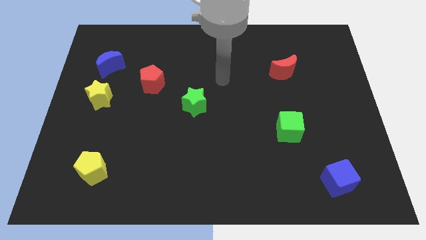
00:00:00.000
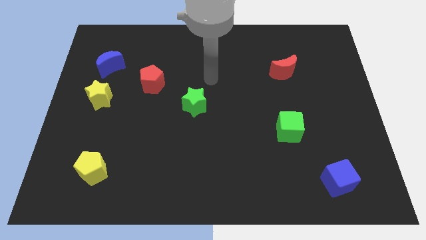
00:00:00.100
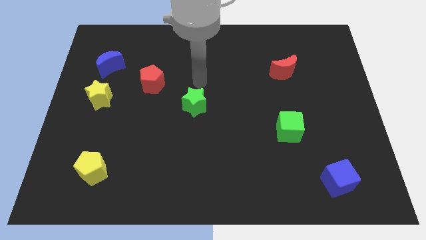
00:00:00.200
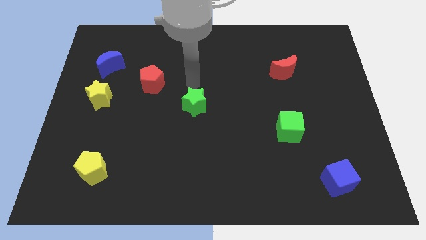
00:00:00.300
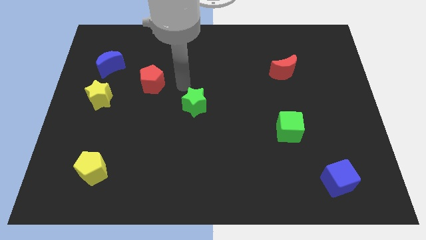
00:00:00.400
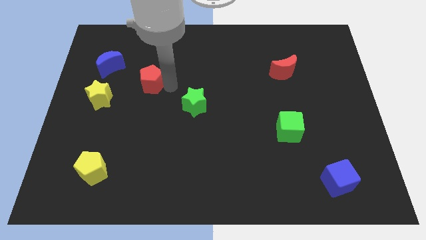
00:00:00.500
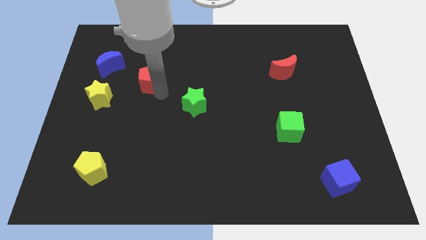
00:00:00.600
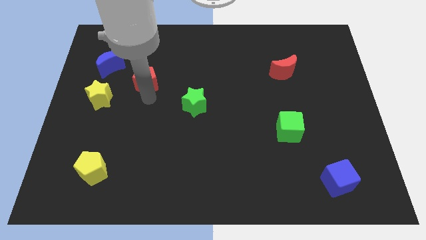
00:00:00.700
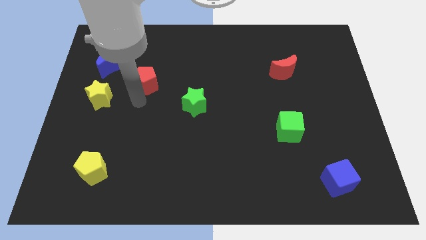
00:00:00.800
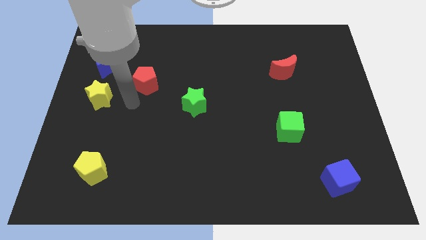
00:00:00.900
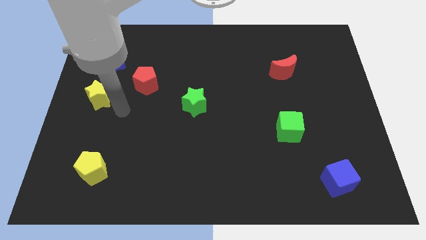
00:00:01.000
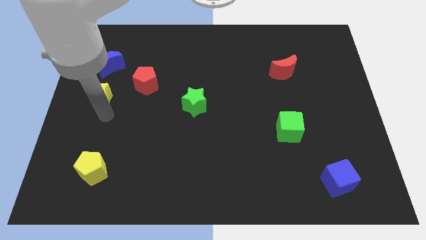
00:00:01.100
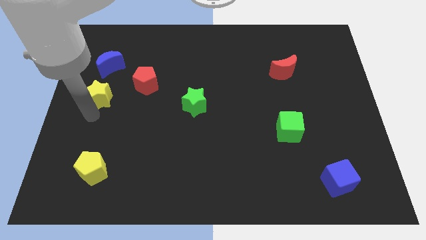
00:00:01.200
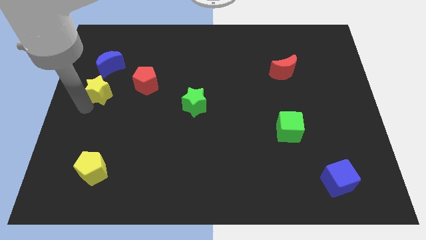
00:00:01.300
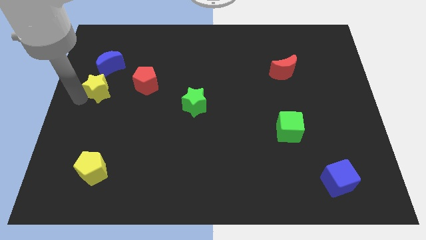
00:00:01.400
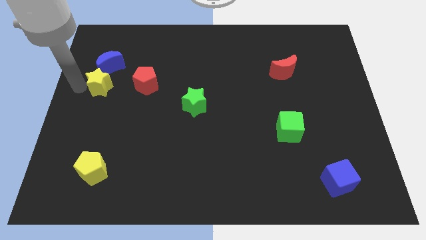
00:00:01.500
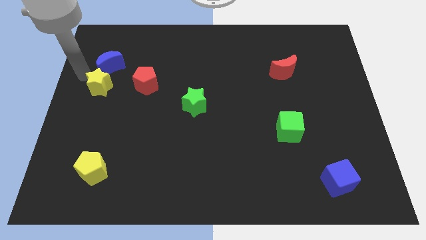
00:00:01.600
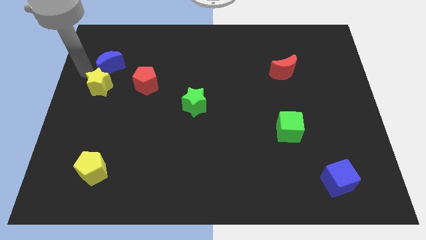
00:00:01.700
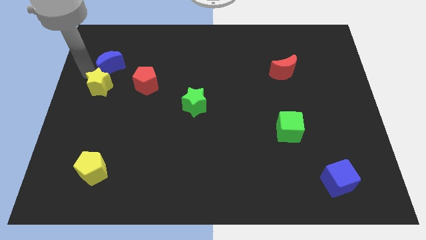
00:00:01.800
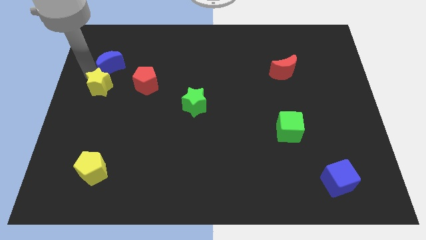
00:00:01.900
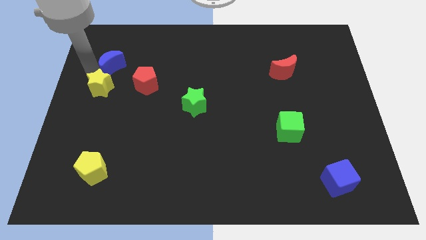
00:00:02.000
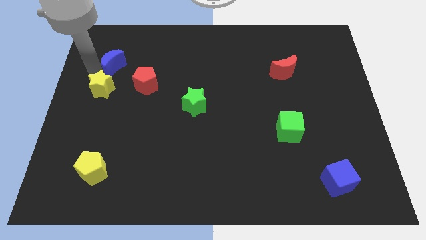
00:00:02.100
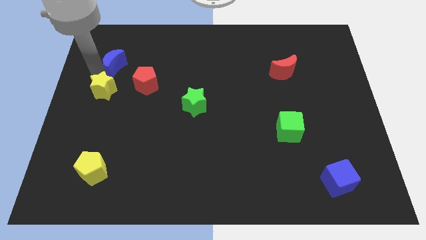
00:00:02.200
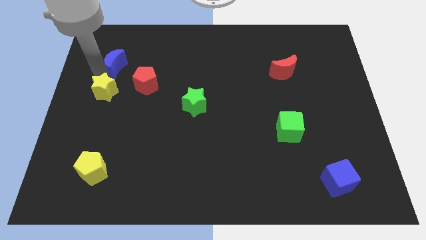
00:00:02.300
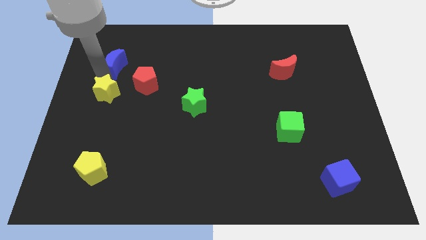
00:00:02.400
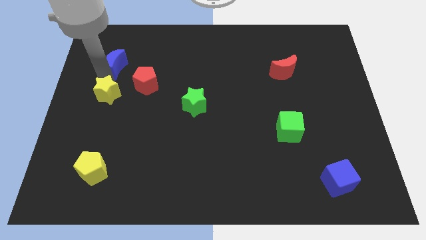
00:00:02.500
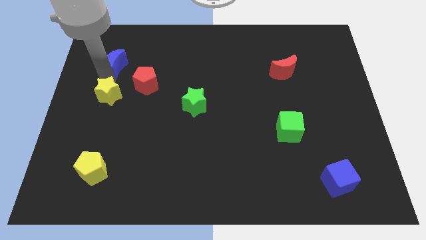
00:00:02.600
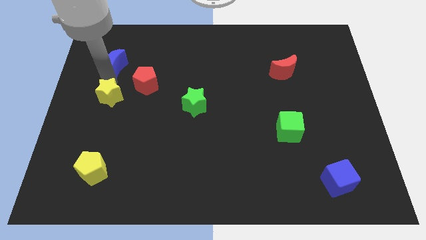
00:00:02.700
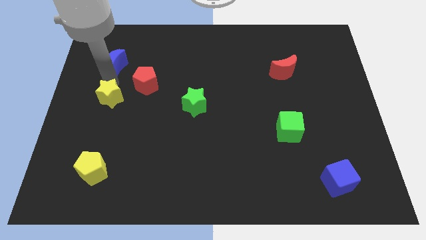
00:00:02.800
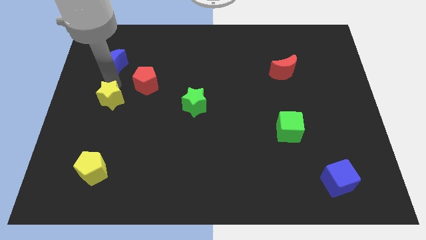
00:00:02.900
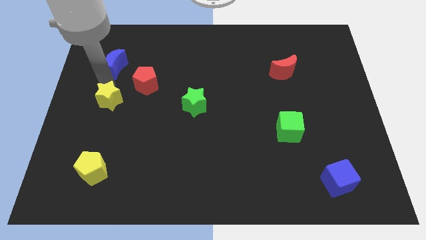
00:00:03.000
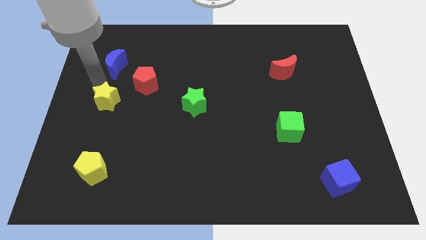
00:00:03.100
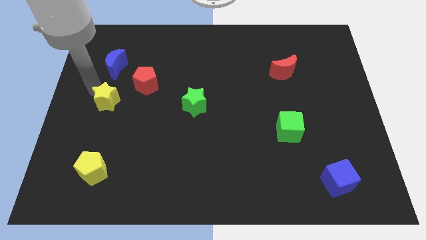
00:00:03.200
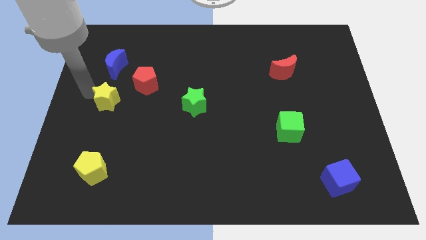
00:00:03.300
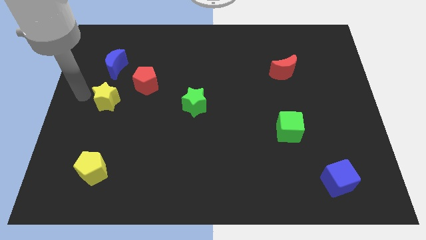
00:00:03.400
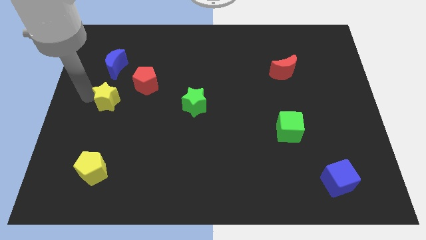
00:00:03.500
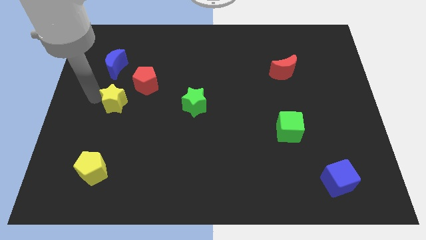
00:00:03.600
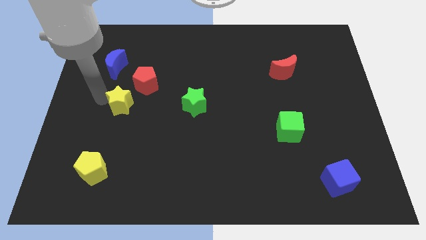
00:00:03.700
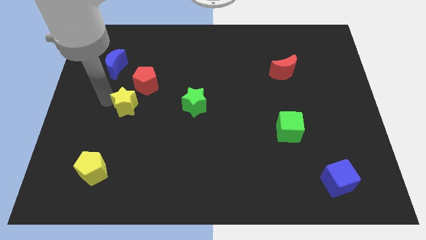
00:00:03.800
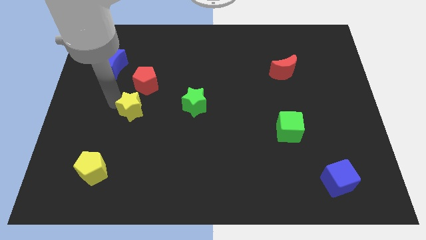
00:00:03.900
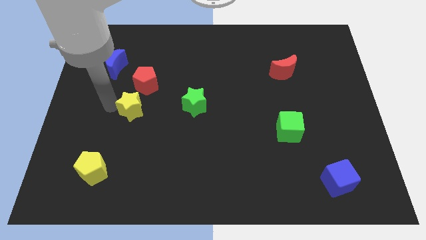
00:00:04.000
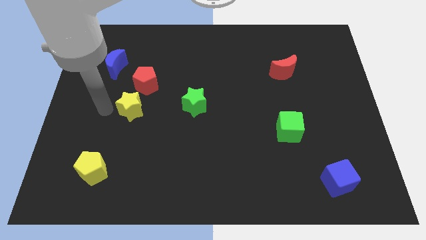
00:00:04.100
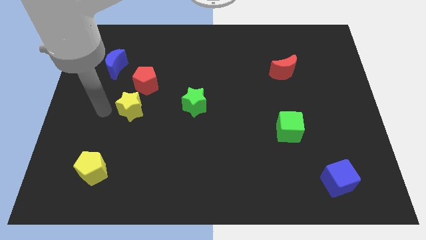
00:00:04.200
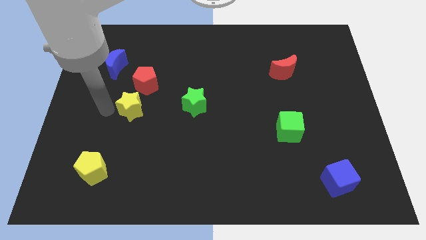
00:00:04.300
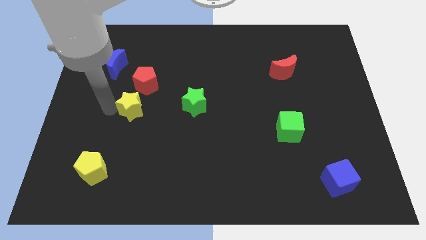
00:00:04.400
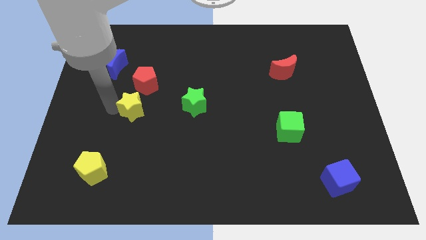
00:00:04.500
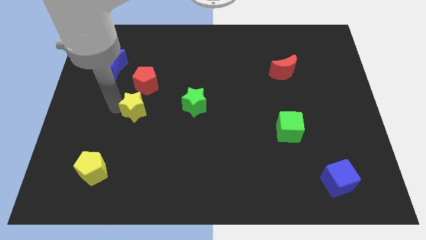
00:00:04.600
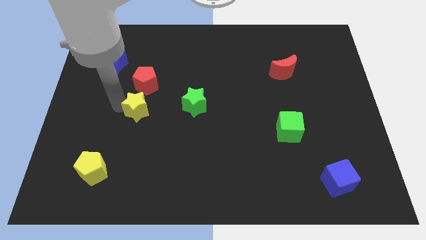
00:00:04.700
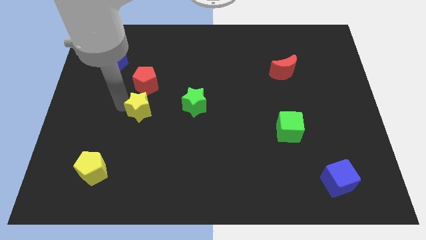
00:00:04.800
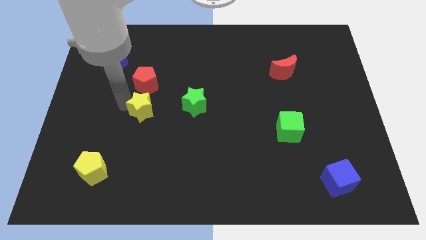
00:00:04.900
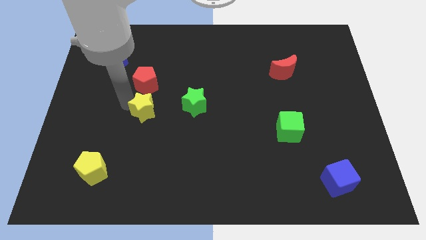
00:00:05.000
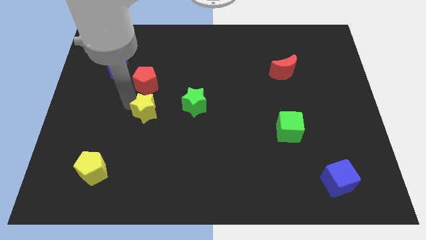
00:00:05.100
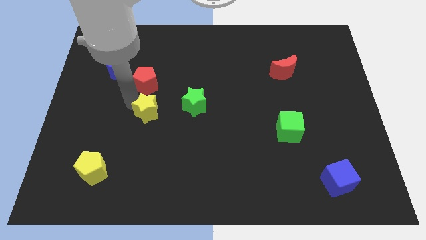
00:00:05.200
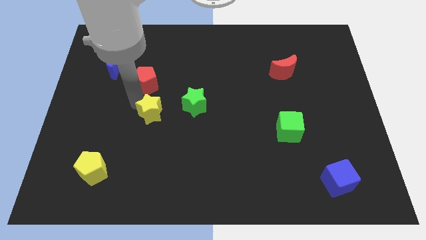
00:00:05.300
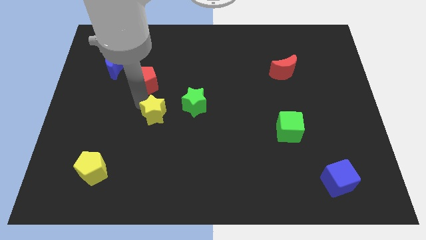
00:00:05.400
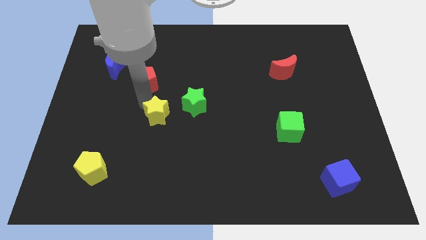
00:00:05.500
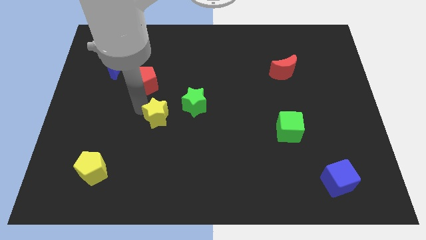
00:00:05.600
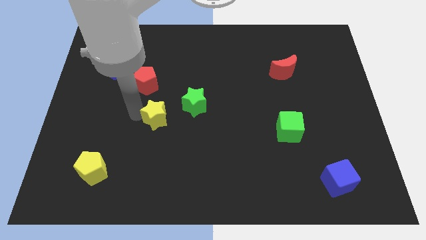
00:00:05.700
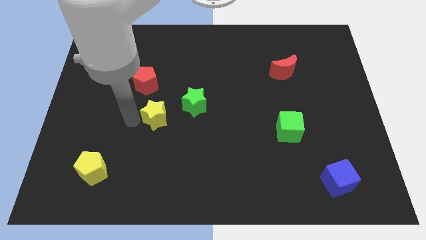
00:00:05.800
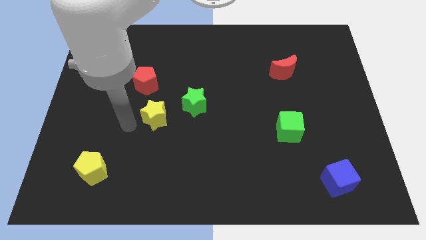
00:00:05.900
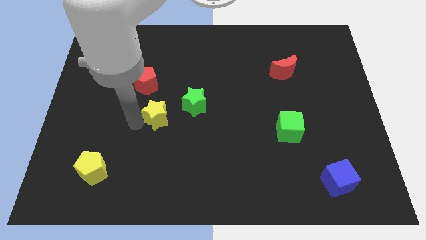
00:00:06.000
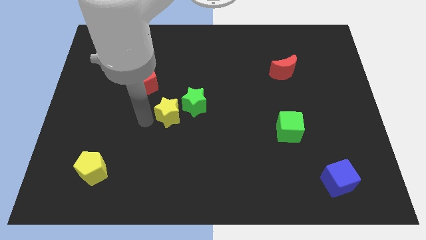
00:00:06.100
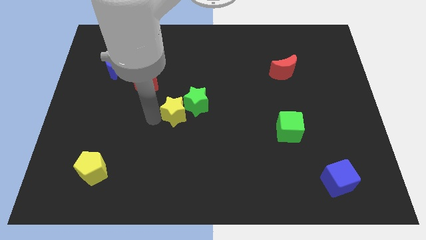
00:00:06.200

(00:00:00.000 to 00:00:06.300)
move the yellow star to the green star
